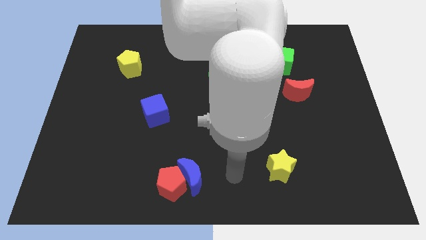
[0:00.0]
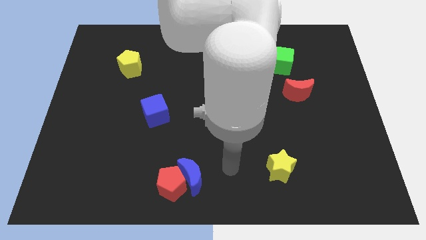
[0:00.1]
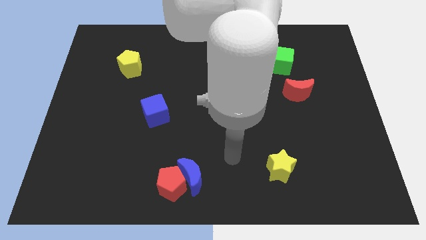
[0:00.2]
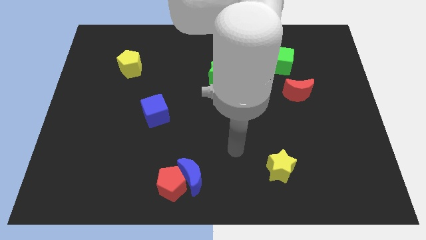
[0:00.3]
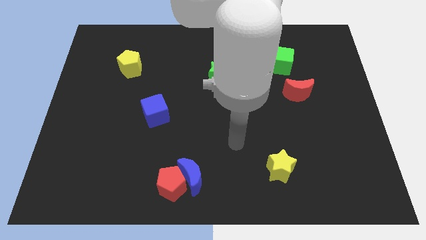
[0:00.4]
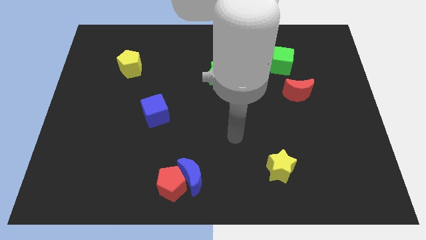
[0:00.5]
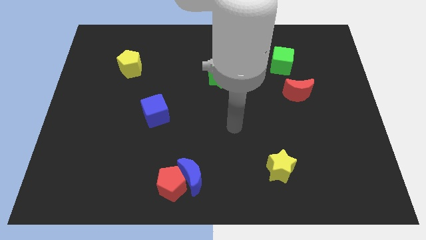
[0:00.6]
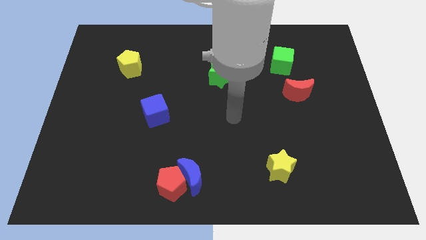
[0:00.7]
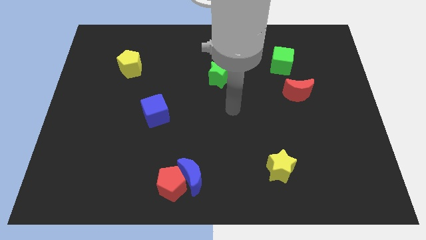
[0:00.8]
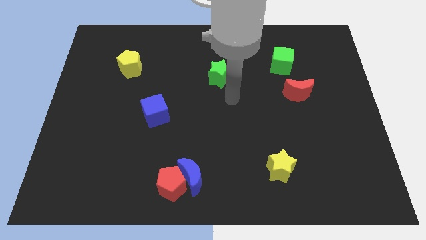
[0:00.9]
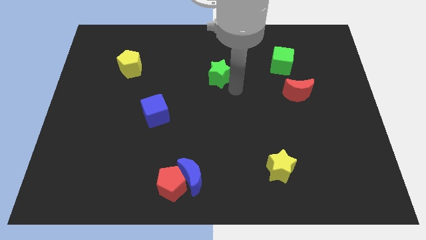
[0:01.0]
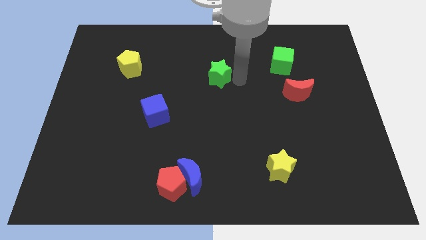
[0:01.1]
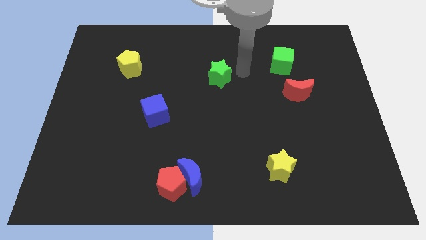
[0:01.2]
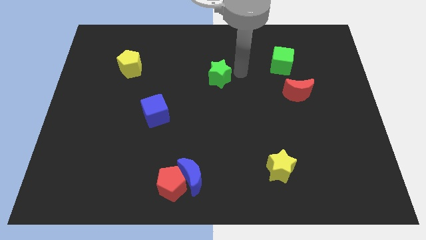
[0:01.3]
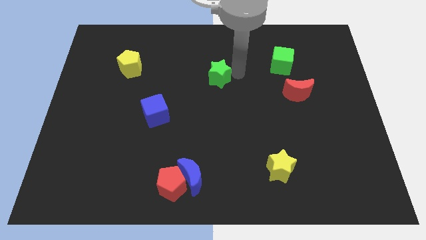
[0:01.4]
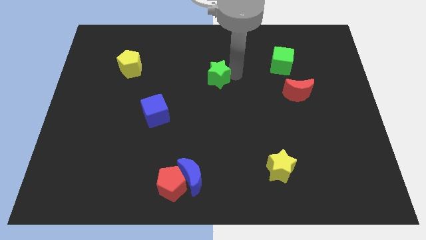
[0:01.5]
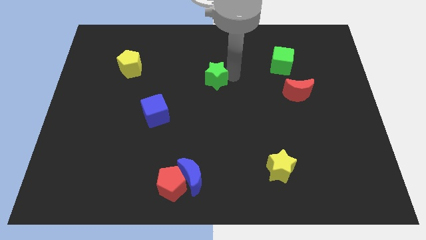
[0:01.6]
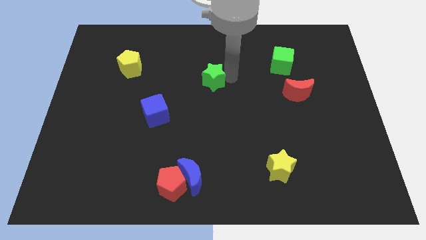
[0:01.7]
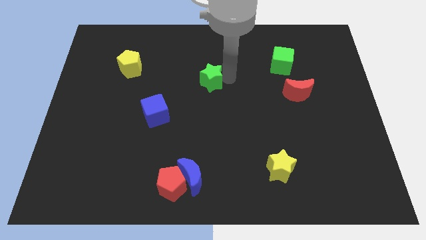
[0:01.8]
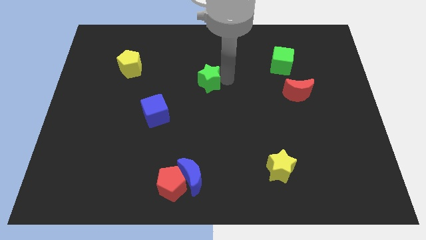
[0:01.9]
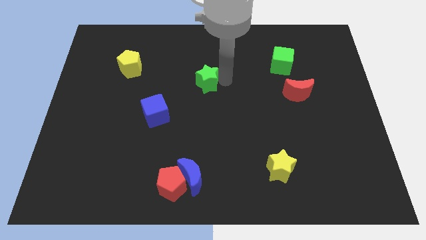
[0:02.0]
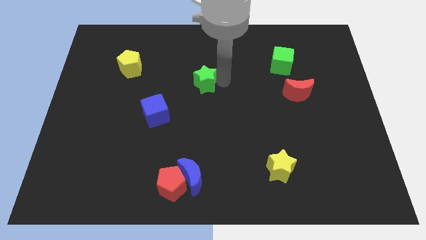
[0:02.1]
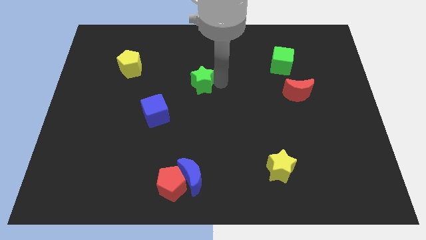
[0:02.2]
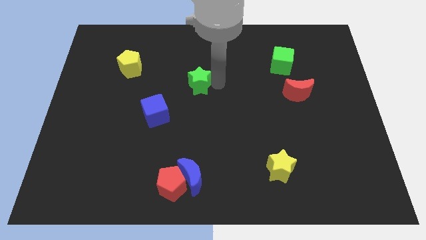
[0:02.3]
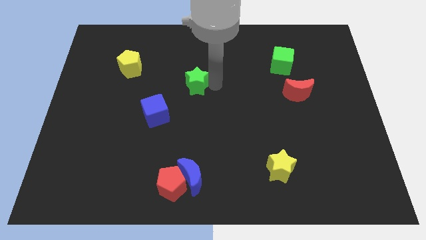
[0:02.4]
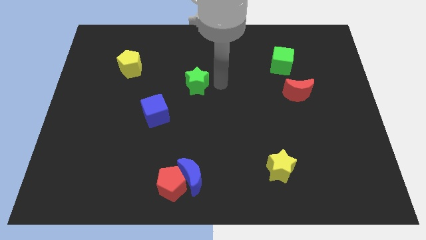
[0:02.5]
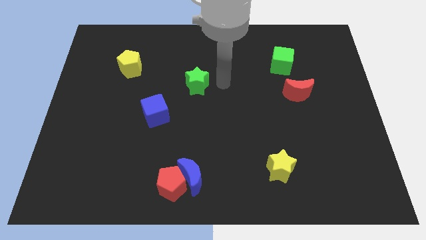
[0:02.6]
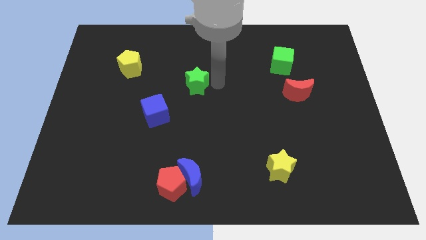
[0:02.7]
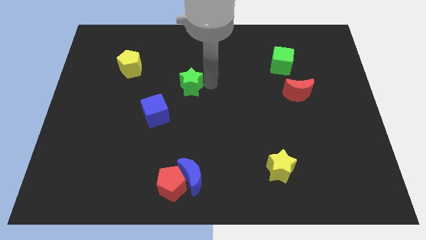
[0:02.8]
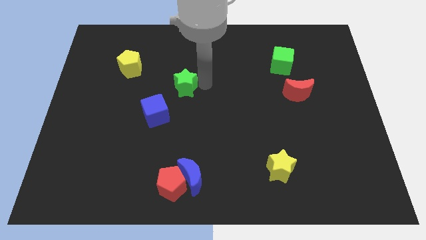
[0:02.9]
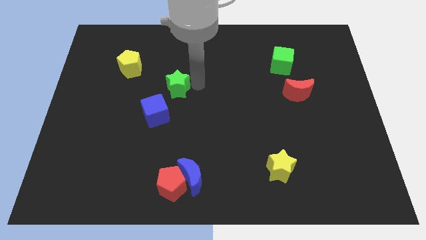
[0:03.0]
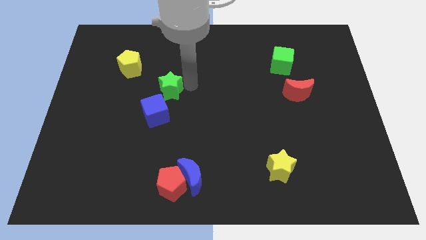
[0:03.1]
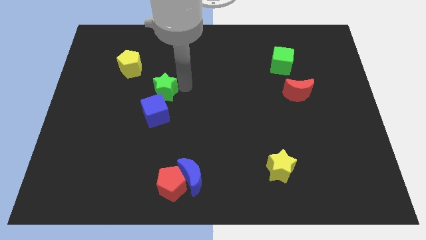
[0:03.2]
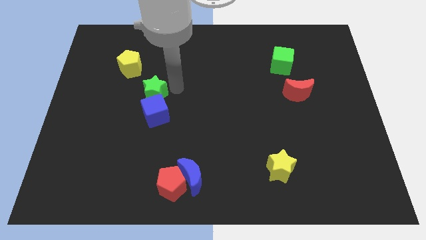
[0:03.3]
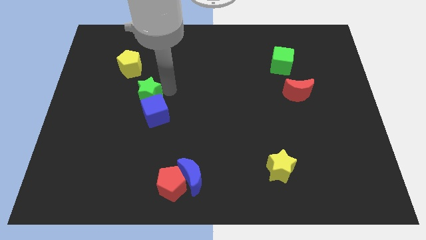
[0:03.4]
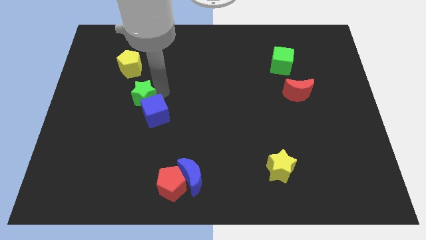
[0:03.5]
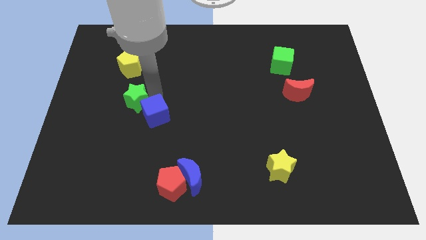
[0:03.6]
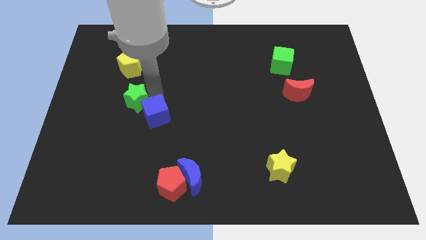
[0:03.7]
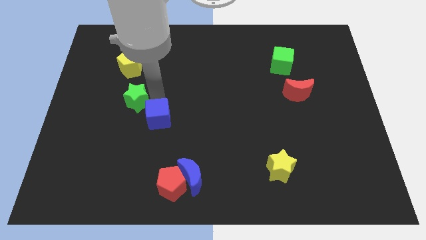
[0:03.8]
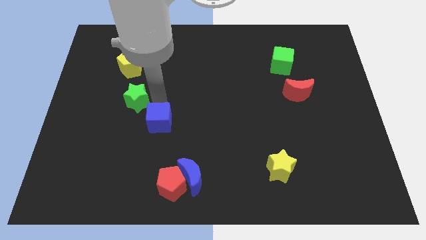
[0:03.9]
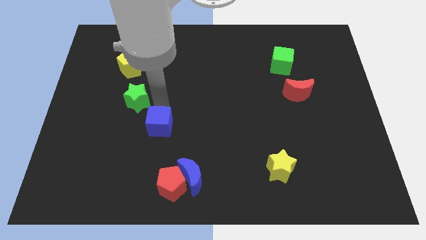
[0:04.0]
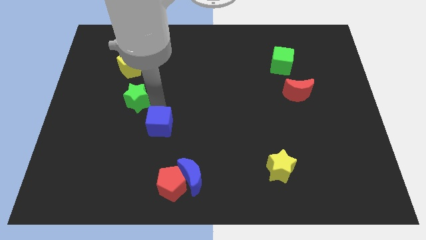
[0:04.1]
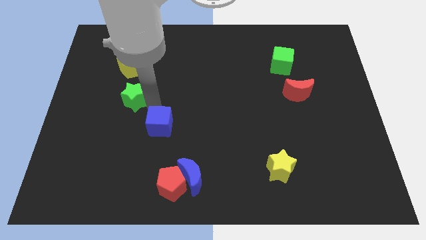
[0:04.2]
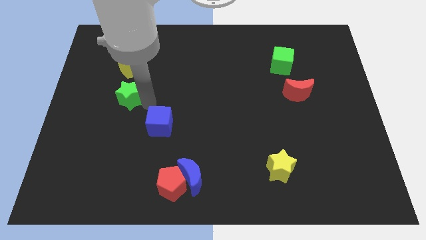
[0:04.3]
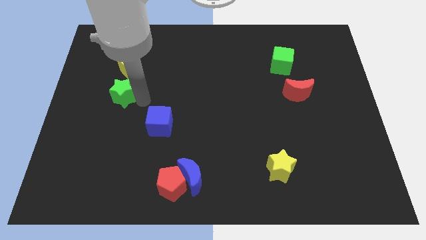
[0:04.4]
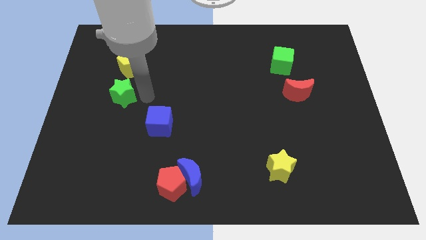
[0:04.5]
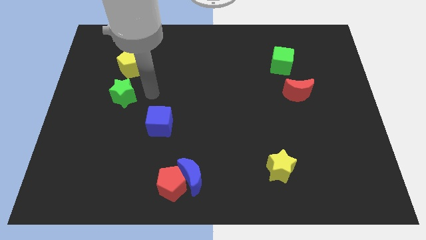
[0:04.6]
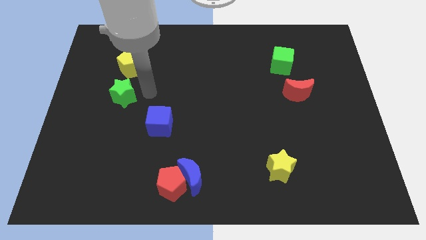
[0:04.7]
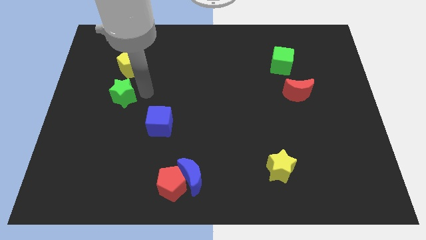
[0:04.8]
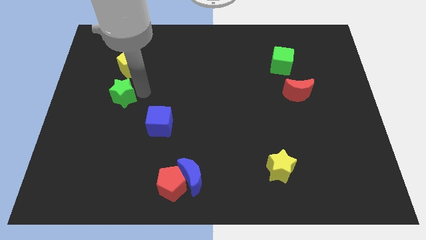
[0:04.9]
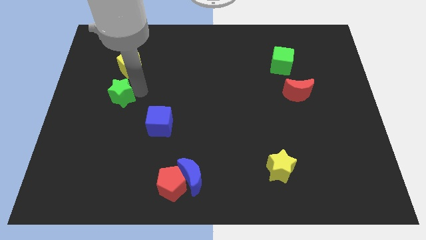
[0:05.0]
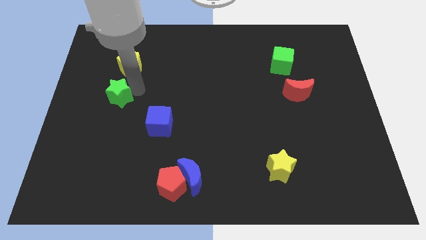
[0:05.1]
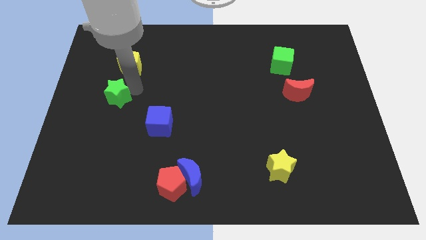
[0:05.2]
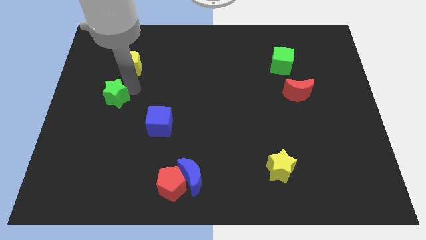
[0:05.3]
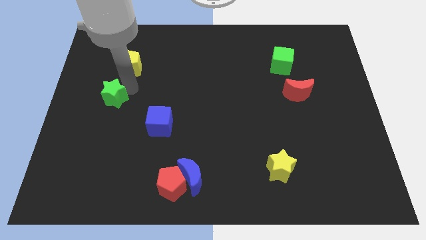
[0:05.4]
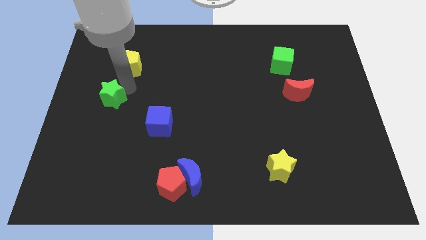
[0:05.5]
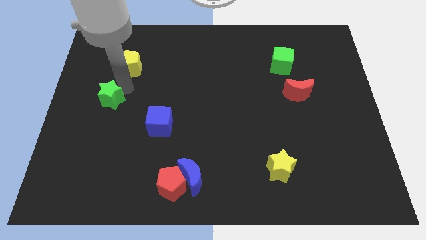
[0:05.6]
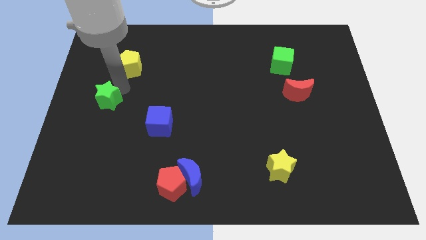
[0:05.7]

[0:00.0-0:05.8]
push the green star to the left side of the board

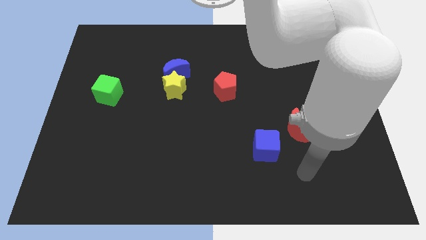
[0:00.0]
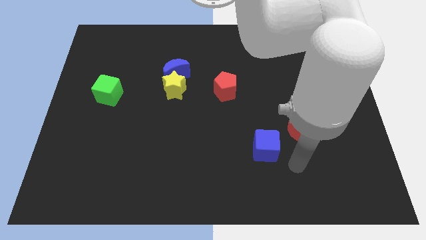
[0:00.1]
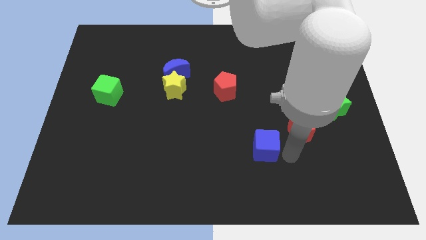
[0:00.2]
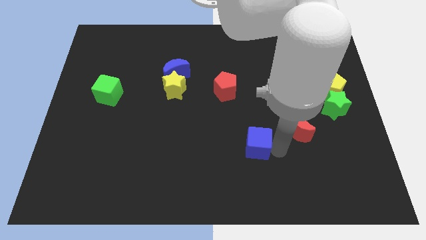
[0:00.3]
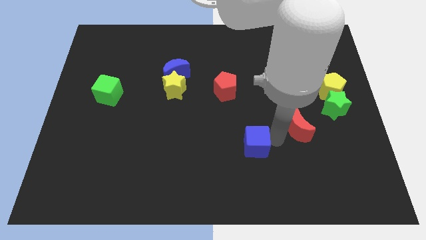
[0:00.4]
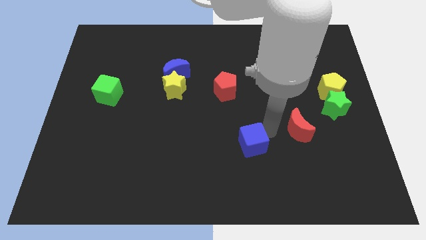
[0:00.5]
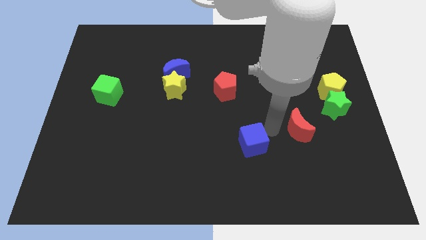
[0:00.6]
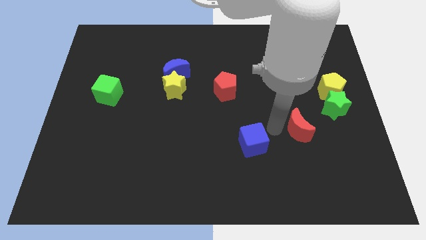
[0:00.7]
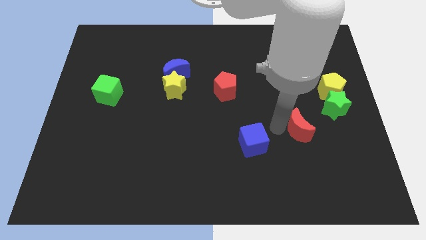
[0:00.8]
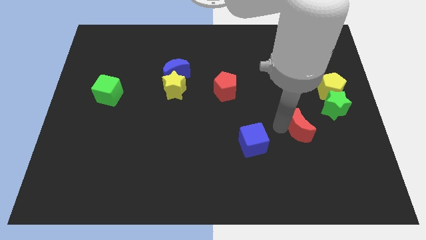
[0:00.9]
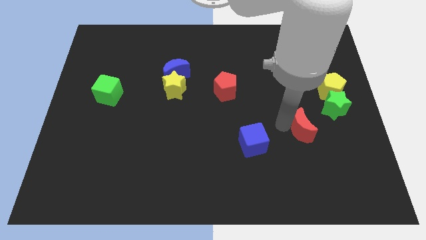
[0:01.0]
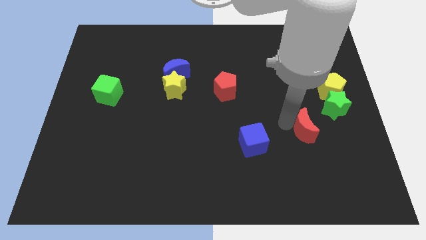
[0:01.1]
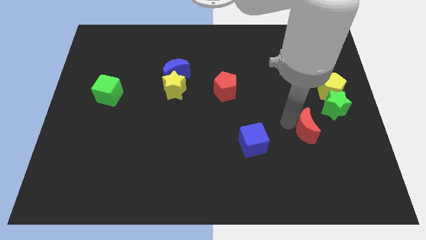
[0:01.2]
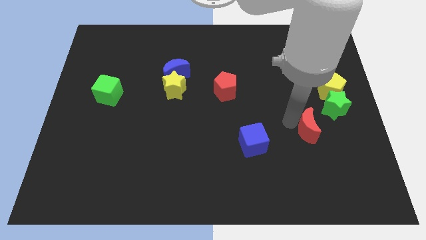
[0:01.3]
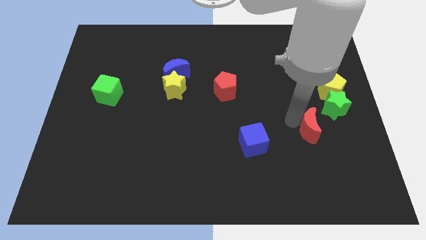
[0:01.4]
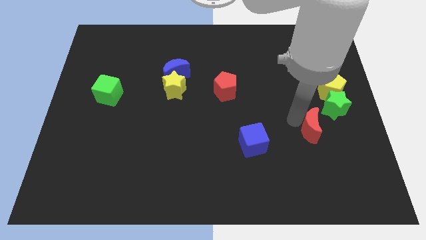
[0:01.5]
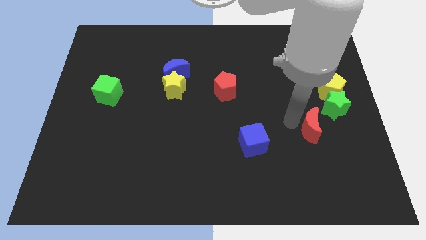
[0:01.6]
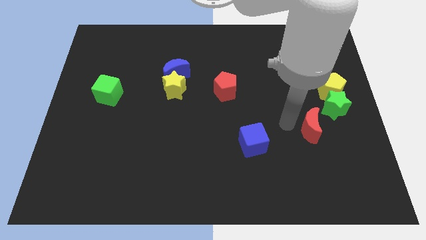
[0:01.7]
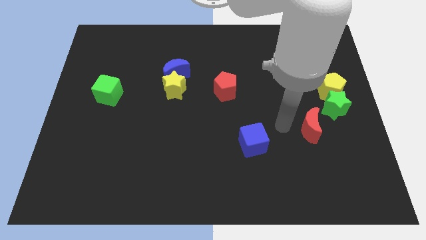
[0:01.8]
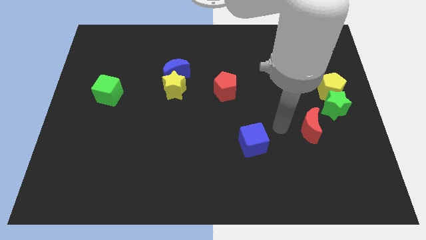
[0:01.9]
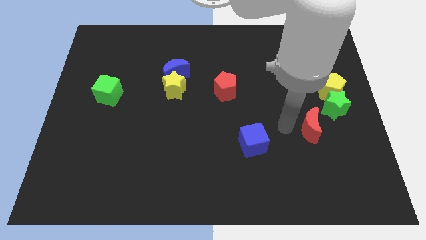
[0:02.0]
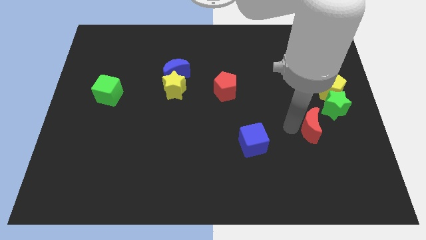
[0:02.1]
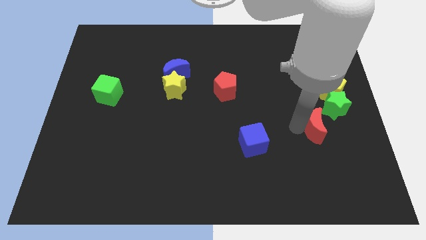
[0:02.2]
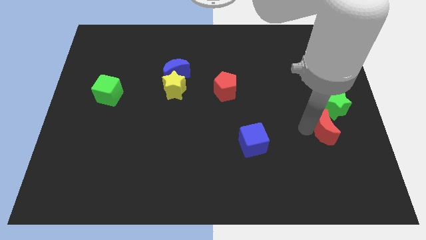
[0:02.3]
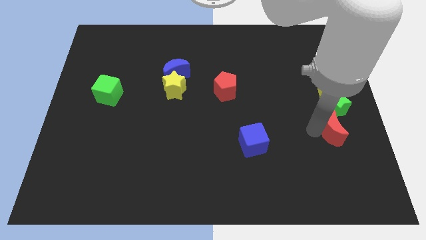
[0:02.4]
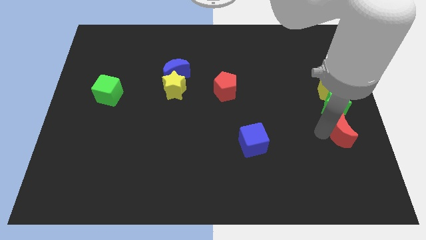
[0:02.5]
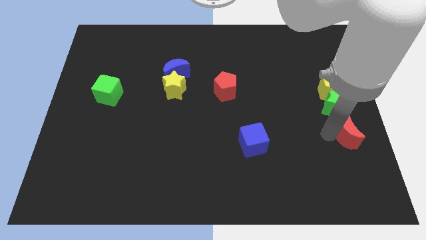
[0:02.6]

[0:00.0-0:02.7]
slide the red moon to the center right
